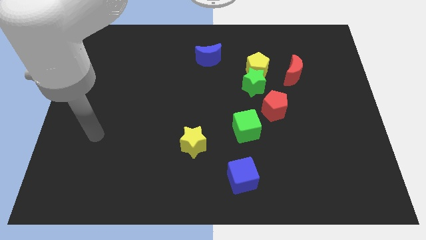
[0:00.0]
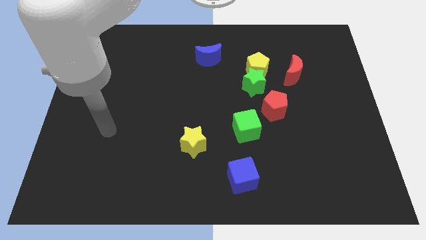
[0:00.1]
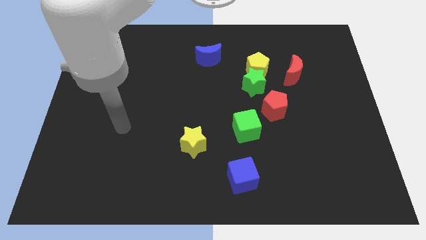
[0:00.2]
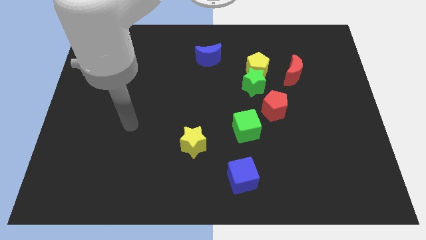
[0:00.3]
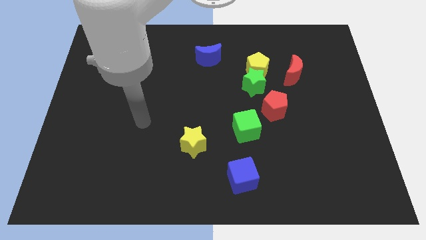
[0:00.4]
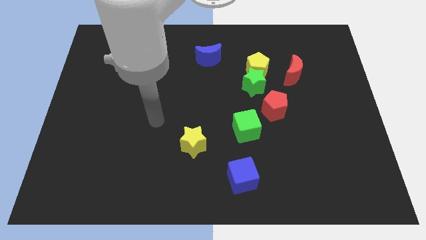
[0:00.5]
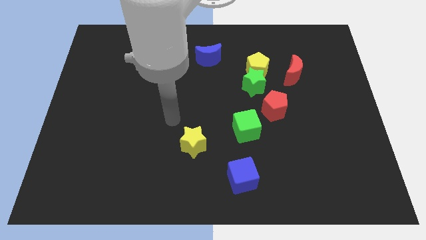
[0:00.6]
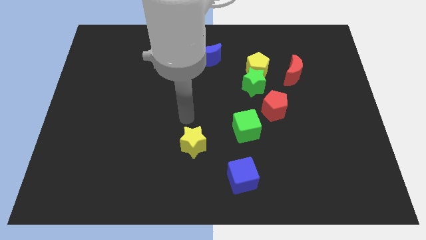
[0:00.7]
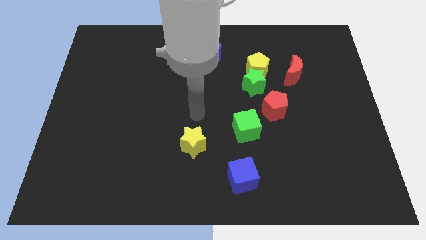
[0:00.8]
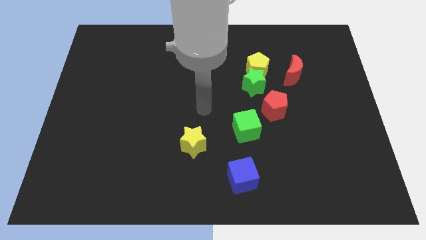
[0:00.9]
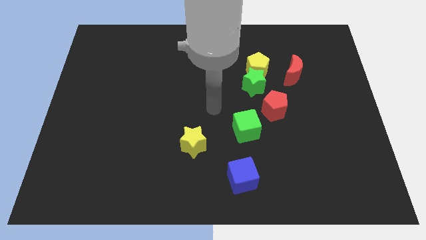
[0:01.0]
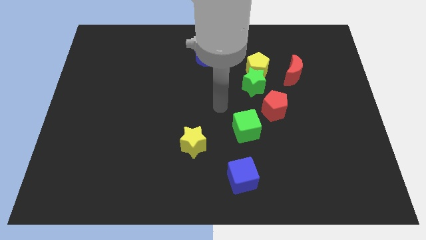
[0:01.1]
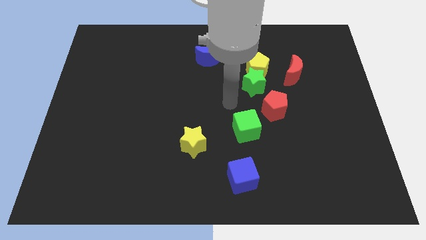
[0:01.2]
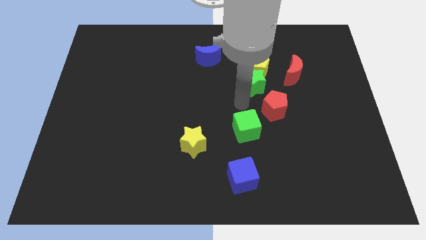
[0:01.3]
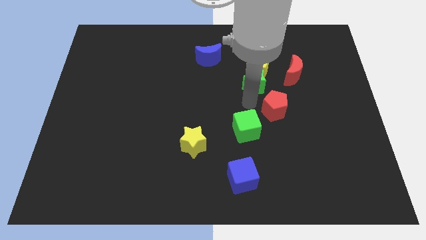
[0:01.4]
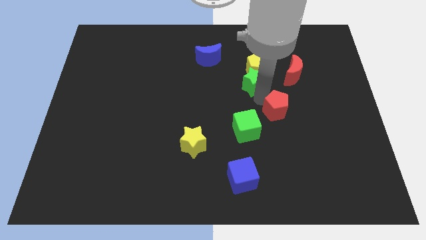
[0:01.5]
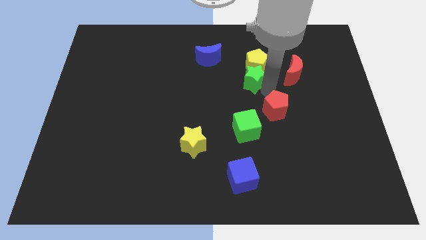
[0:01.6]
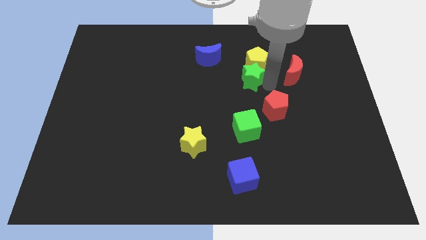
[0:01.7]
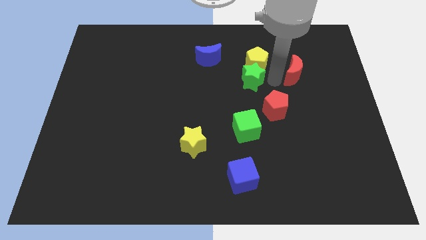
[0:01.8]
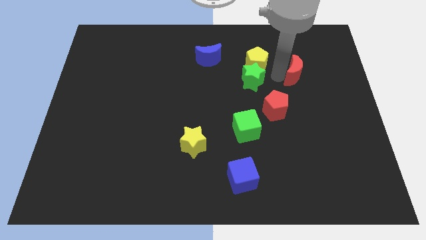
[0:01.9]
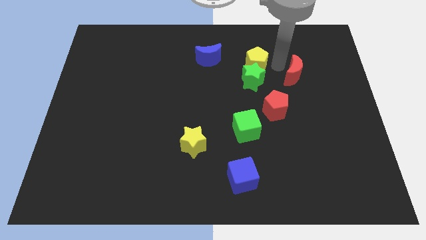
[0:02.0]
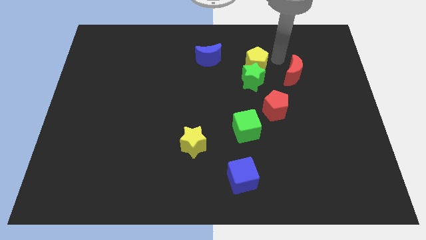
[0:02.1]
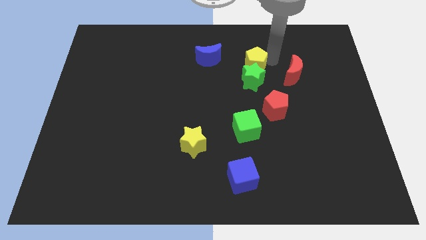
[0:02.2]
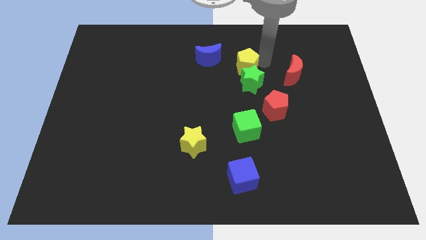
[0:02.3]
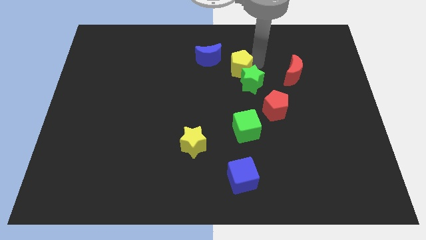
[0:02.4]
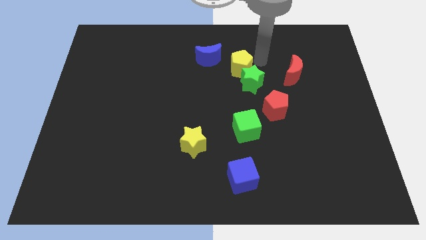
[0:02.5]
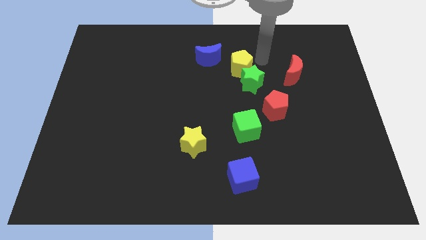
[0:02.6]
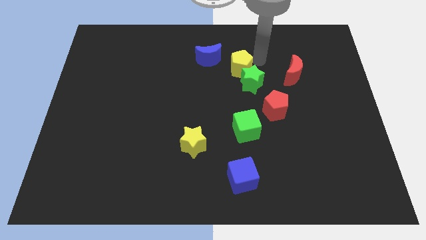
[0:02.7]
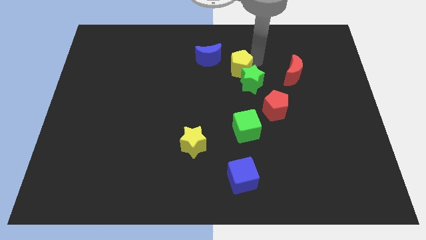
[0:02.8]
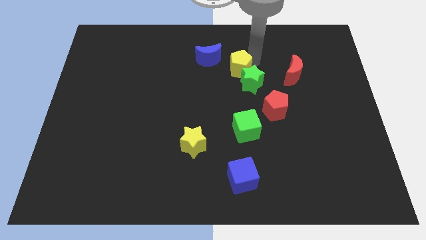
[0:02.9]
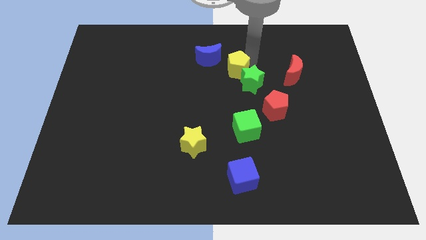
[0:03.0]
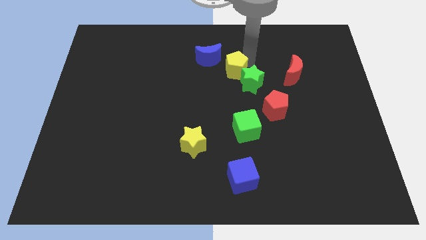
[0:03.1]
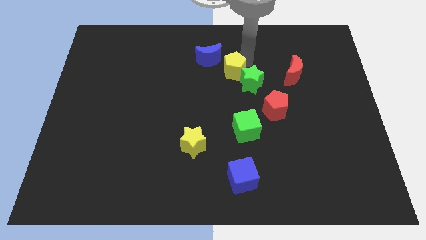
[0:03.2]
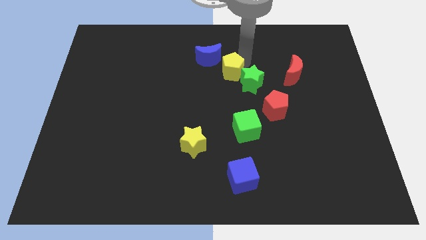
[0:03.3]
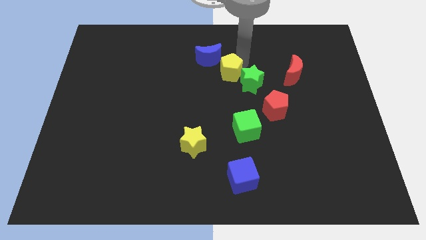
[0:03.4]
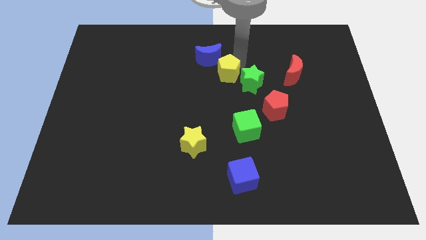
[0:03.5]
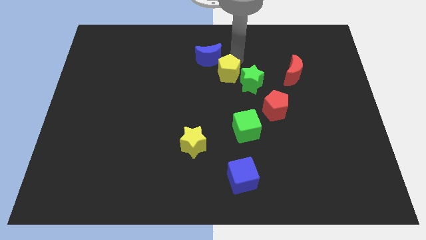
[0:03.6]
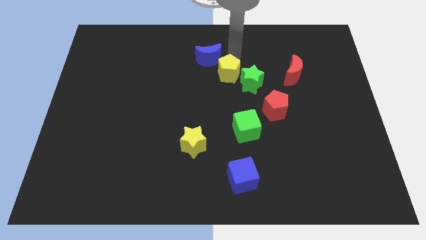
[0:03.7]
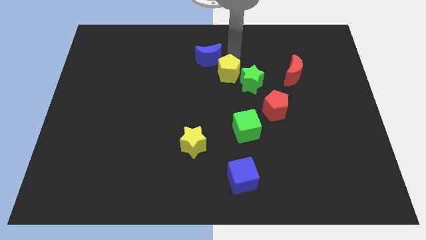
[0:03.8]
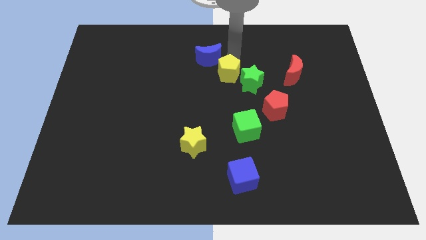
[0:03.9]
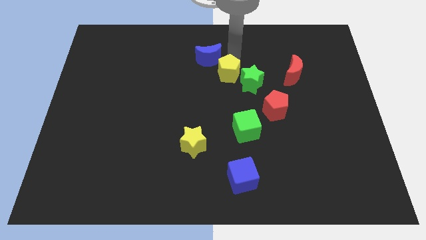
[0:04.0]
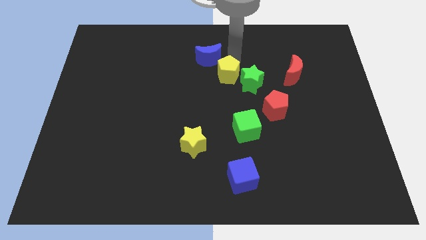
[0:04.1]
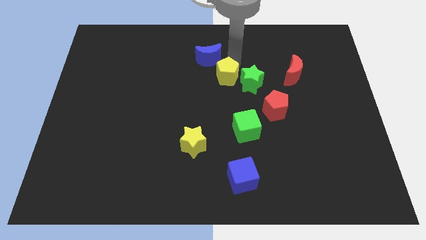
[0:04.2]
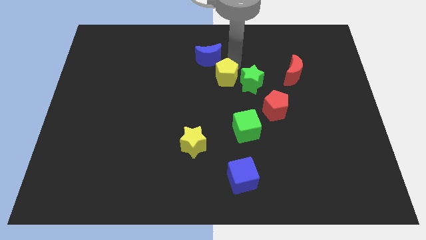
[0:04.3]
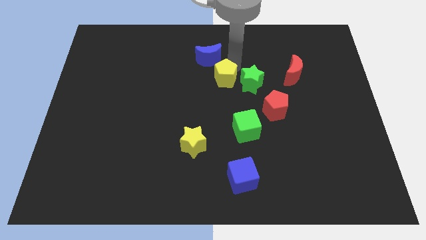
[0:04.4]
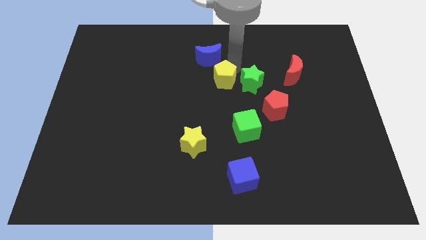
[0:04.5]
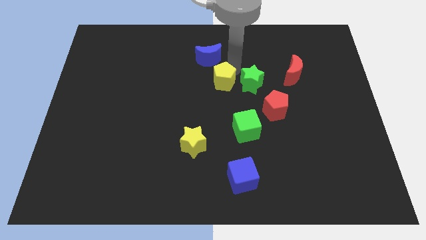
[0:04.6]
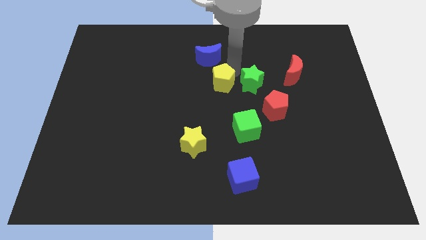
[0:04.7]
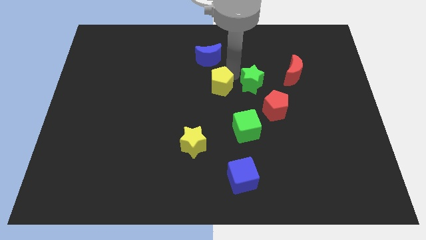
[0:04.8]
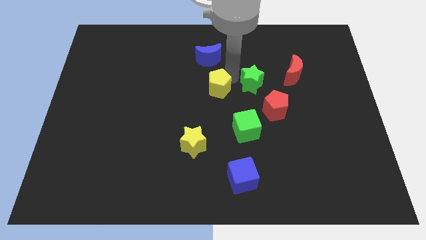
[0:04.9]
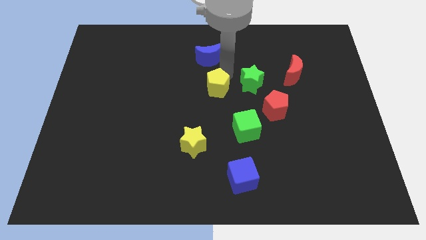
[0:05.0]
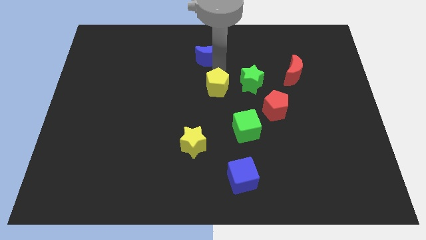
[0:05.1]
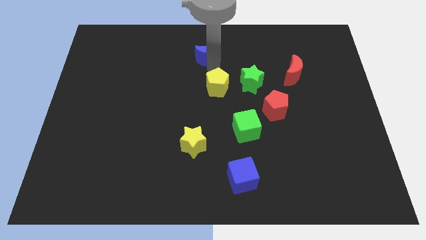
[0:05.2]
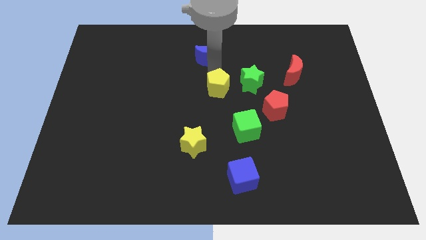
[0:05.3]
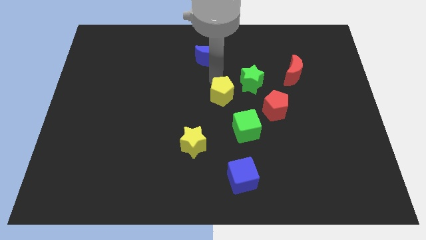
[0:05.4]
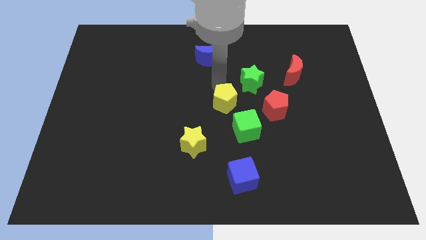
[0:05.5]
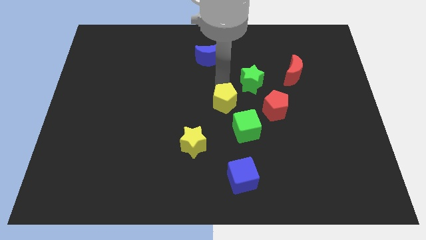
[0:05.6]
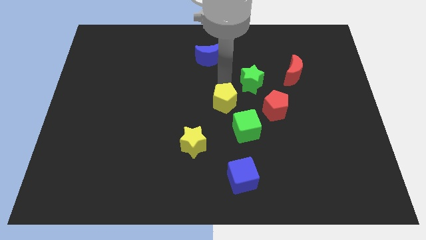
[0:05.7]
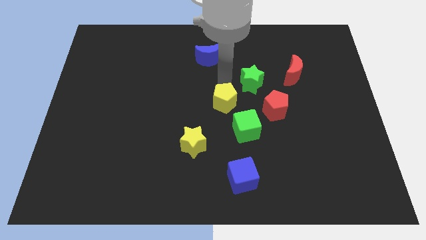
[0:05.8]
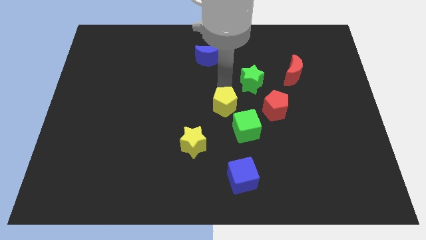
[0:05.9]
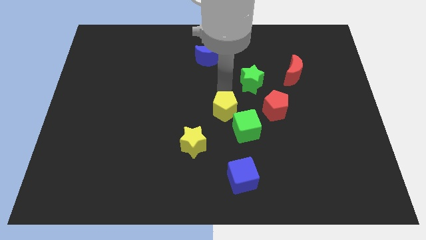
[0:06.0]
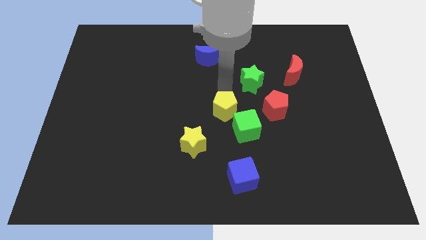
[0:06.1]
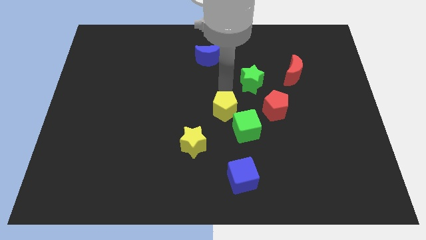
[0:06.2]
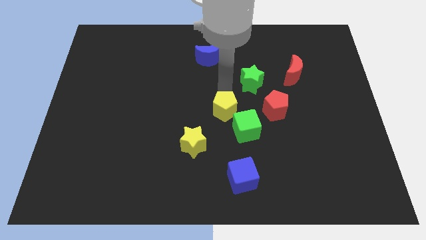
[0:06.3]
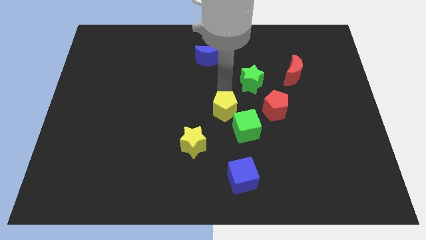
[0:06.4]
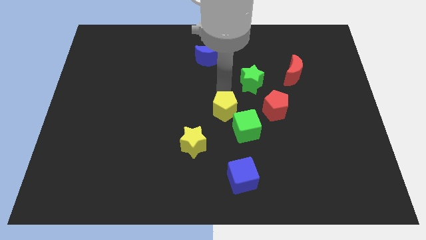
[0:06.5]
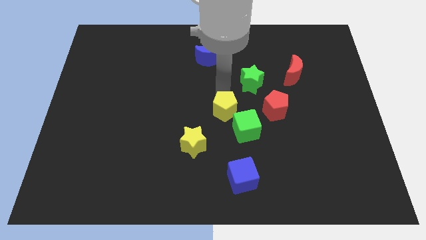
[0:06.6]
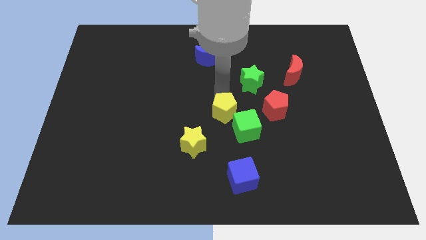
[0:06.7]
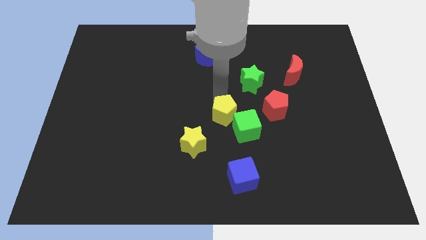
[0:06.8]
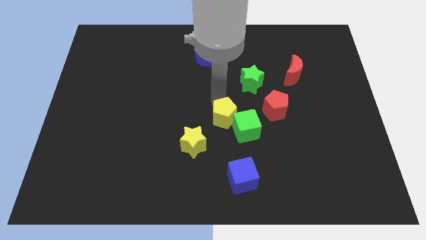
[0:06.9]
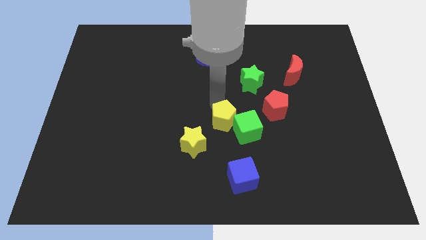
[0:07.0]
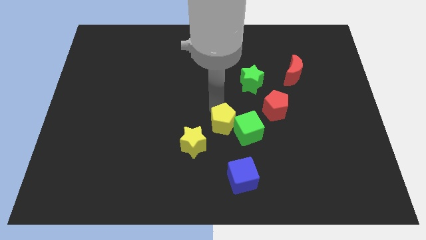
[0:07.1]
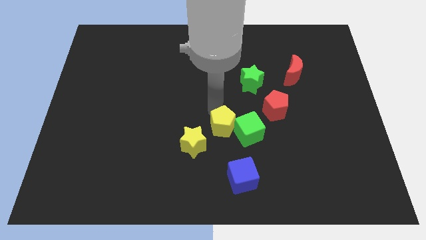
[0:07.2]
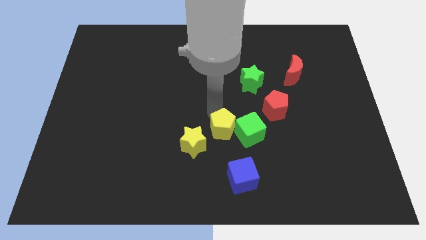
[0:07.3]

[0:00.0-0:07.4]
push the yellow pentagon right of the yellow star

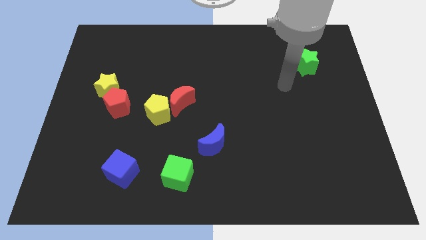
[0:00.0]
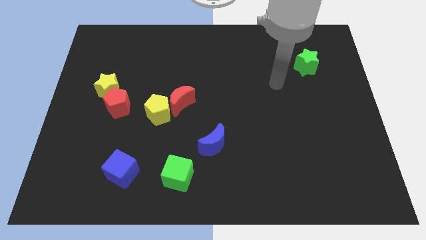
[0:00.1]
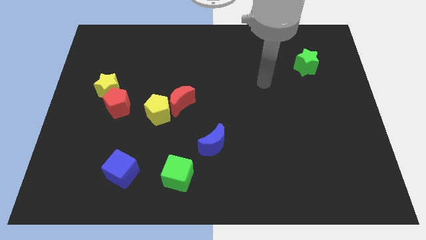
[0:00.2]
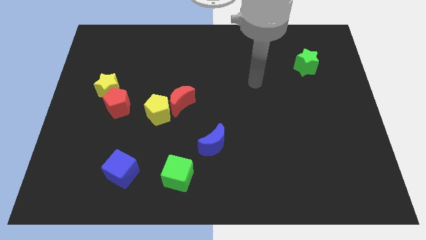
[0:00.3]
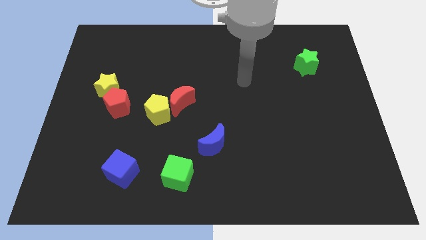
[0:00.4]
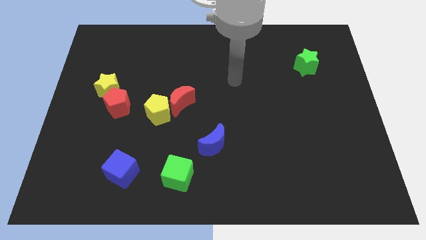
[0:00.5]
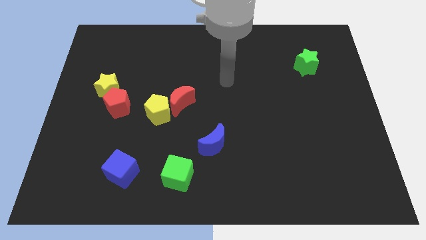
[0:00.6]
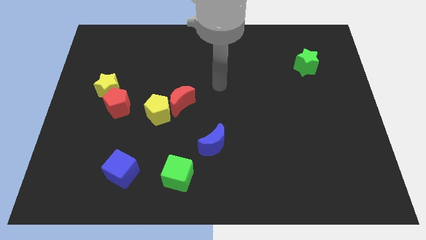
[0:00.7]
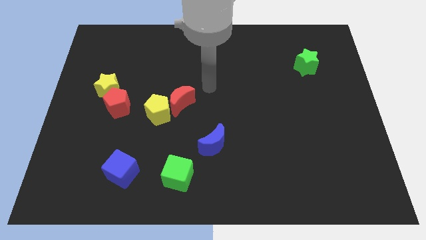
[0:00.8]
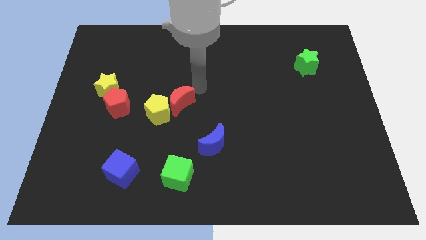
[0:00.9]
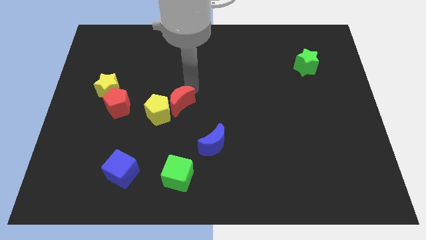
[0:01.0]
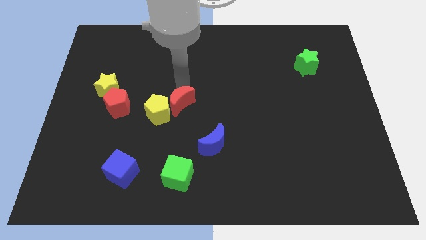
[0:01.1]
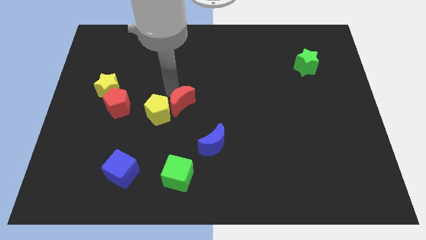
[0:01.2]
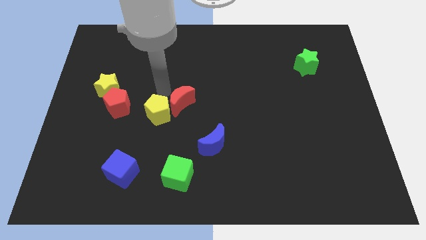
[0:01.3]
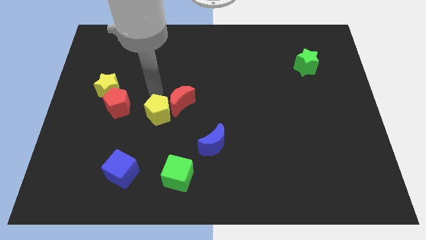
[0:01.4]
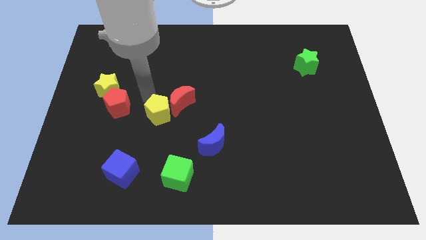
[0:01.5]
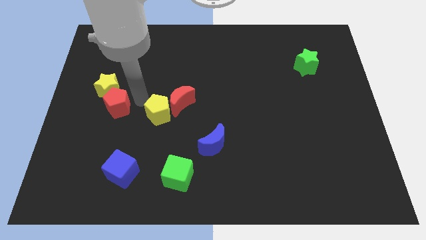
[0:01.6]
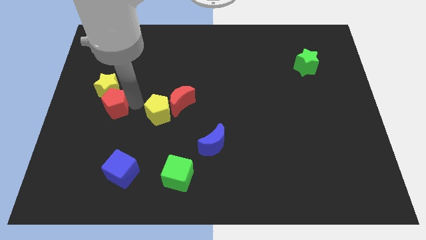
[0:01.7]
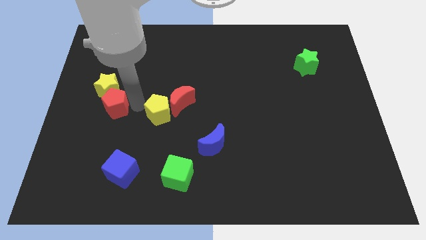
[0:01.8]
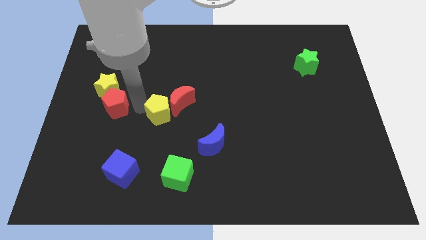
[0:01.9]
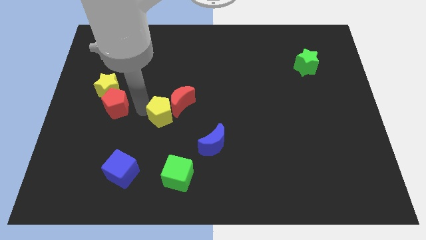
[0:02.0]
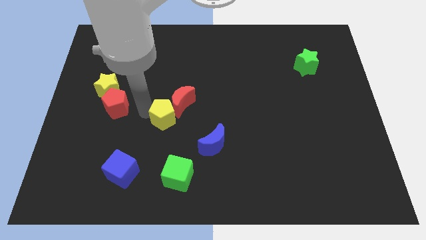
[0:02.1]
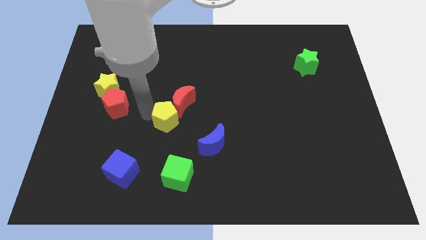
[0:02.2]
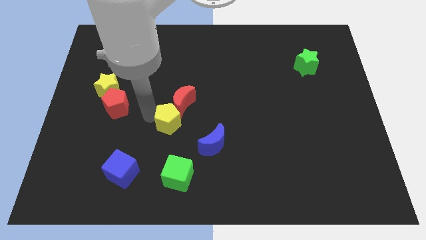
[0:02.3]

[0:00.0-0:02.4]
slide the yellow pentagon diagonally up and to the left of the blue moon
